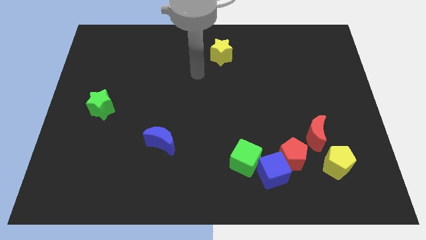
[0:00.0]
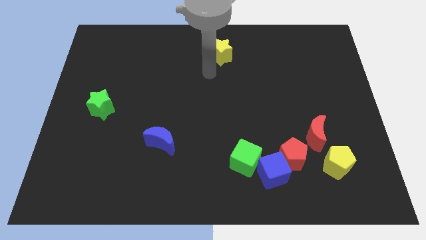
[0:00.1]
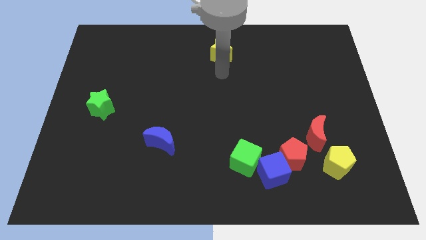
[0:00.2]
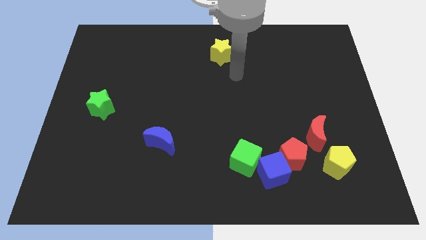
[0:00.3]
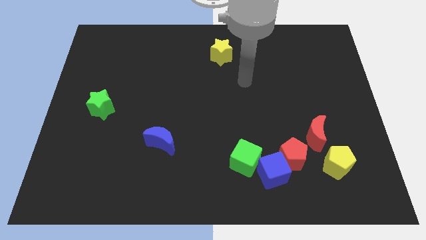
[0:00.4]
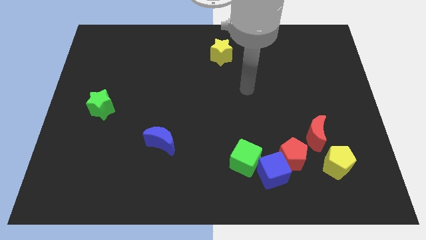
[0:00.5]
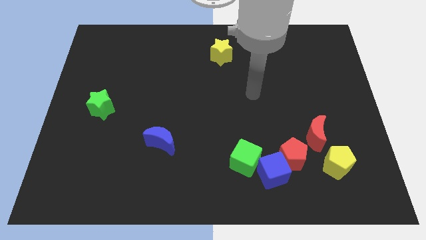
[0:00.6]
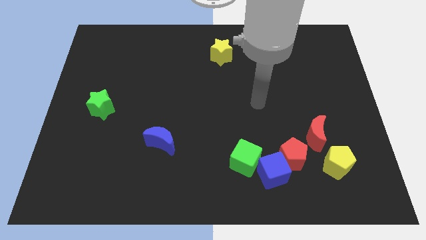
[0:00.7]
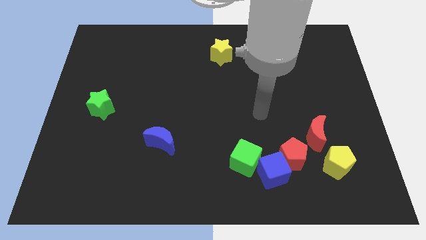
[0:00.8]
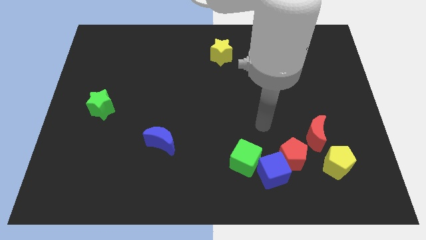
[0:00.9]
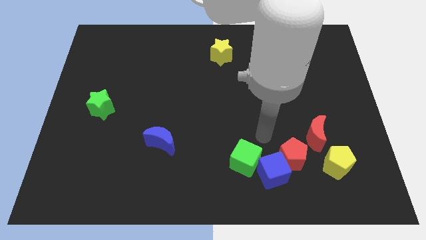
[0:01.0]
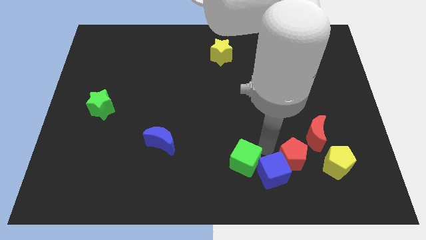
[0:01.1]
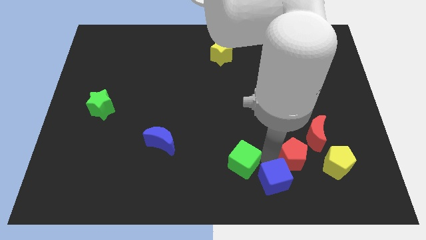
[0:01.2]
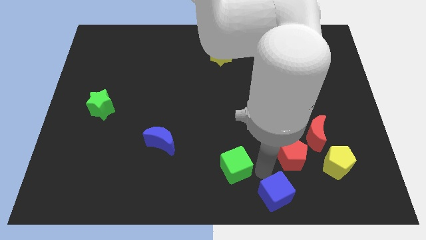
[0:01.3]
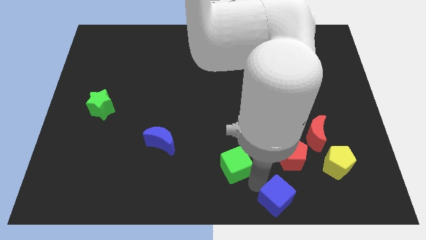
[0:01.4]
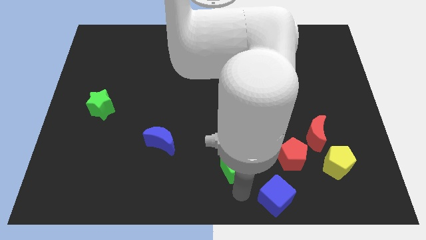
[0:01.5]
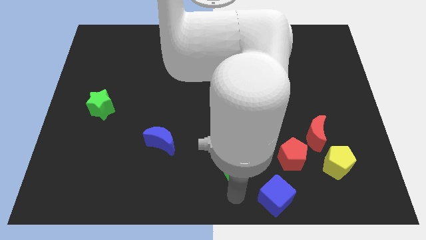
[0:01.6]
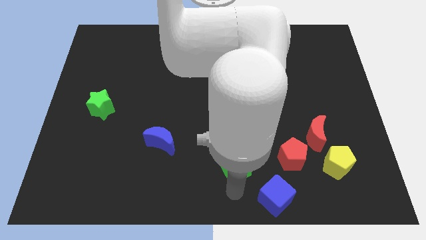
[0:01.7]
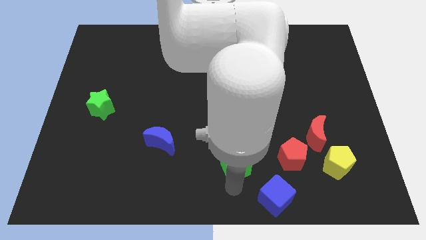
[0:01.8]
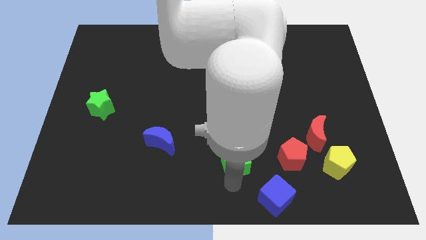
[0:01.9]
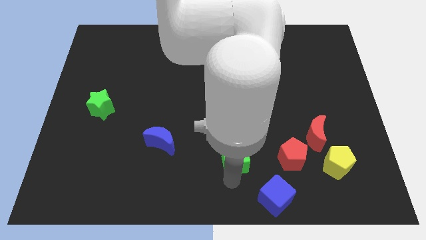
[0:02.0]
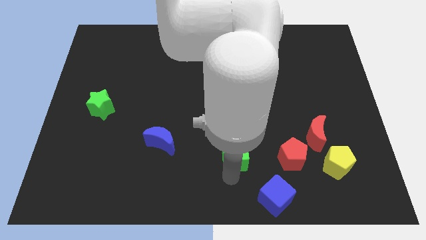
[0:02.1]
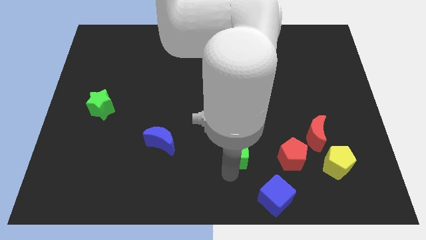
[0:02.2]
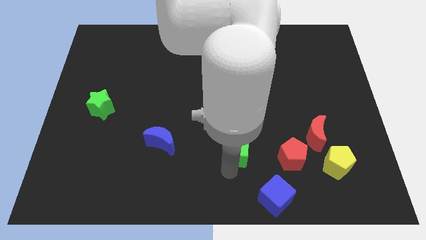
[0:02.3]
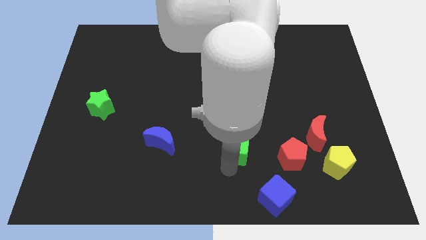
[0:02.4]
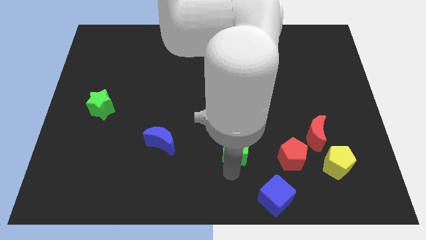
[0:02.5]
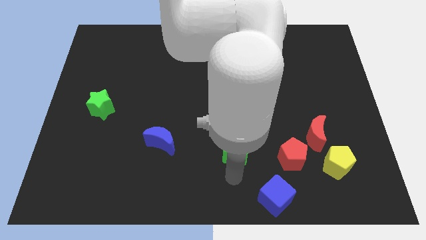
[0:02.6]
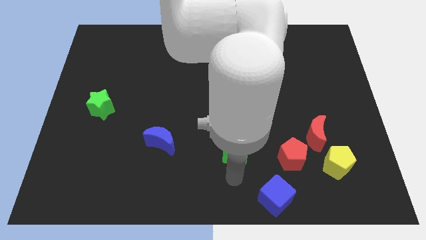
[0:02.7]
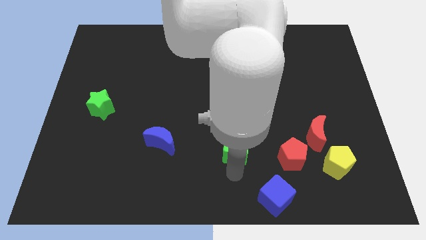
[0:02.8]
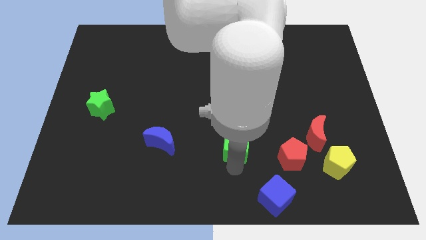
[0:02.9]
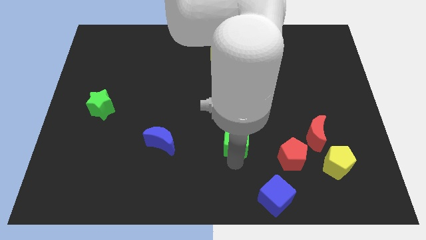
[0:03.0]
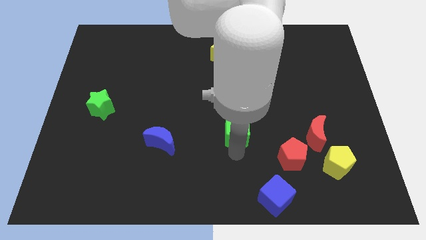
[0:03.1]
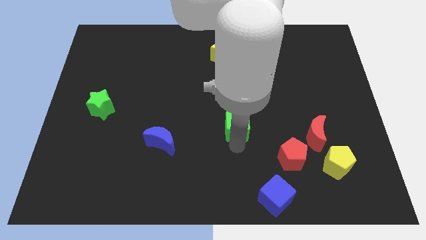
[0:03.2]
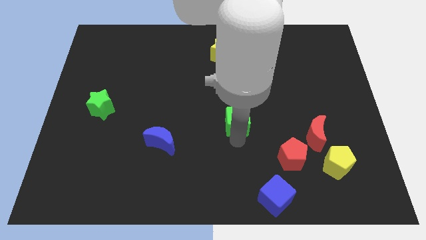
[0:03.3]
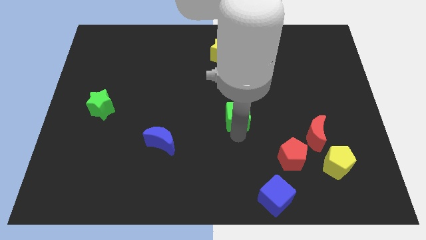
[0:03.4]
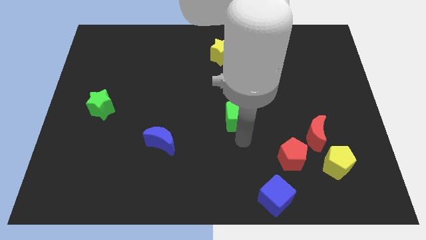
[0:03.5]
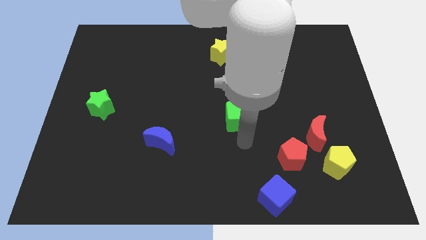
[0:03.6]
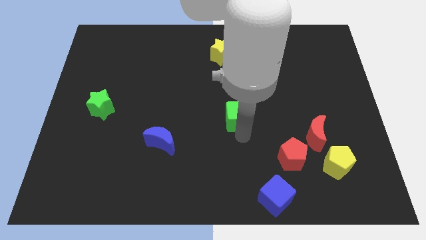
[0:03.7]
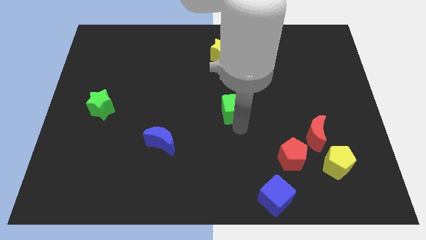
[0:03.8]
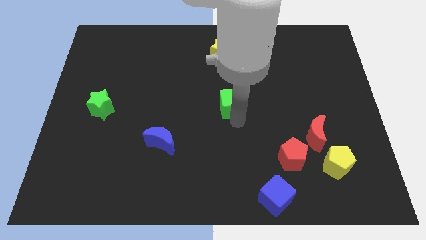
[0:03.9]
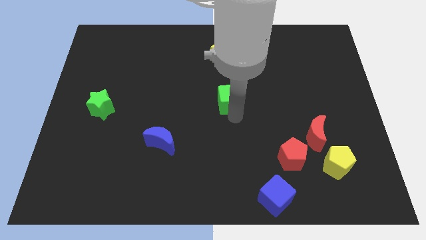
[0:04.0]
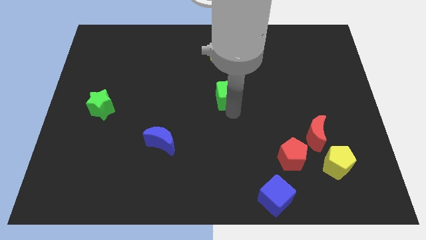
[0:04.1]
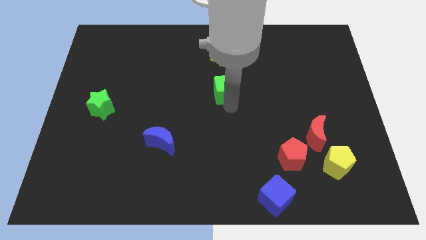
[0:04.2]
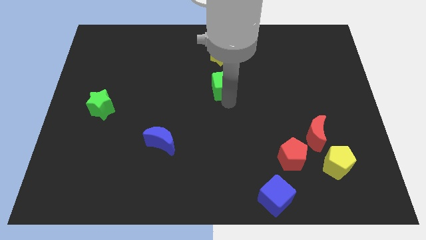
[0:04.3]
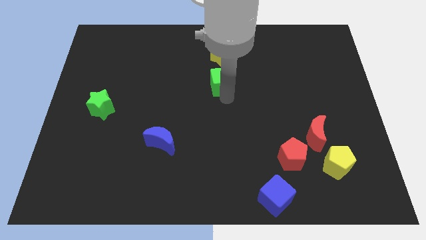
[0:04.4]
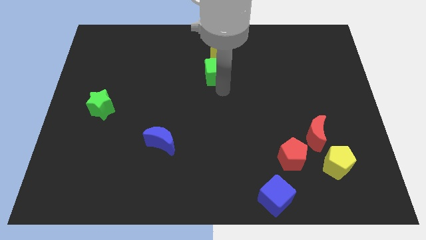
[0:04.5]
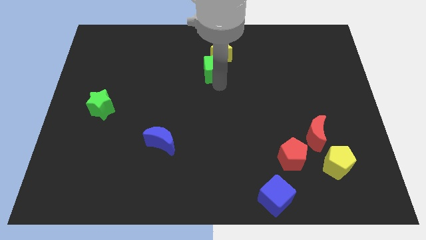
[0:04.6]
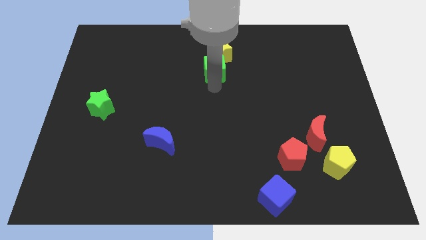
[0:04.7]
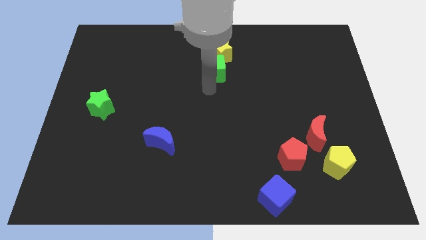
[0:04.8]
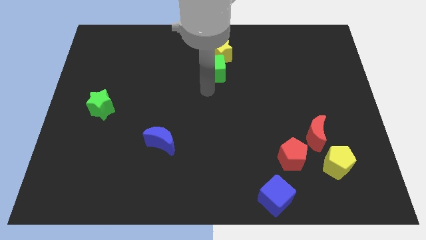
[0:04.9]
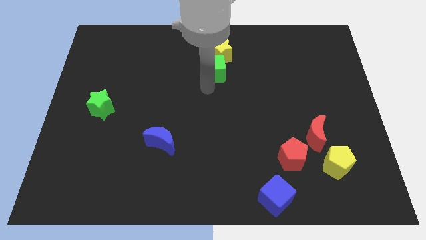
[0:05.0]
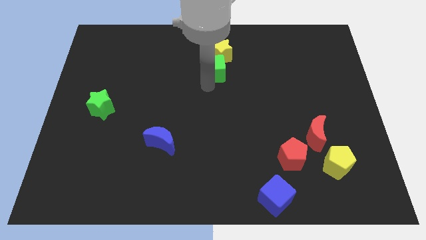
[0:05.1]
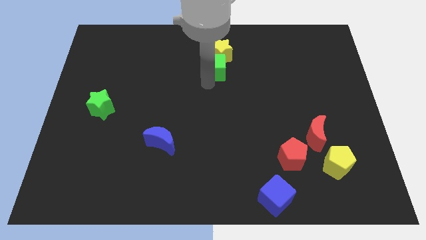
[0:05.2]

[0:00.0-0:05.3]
move the green cube towards the yellow star

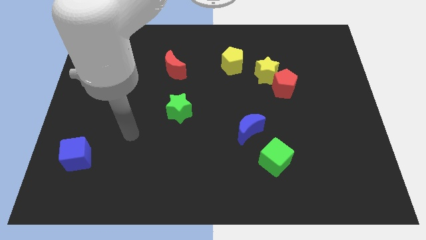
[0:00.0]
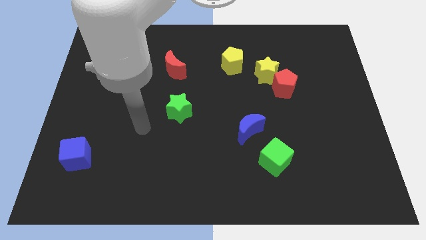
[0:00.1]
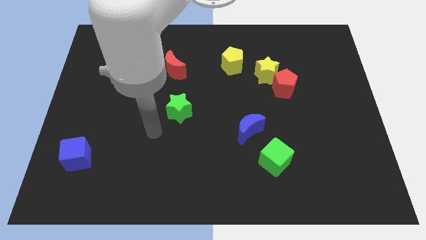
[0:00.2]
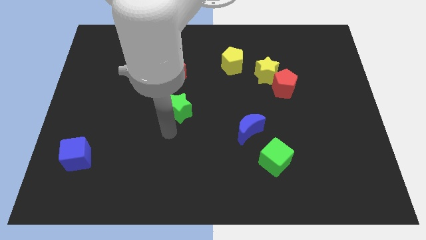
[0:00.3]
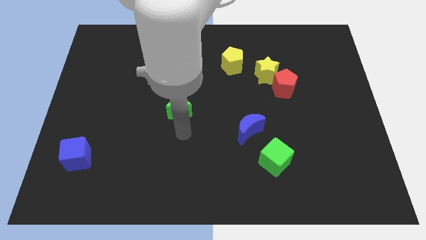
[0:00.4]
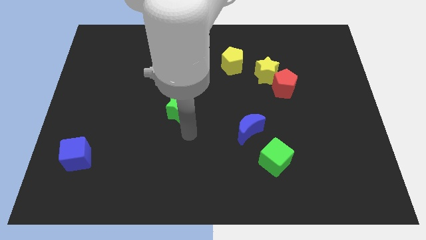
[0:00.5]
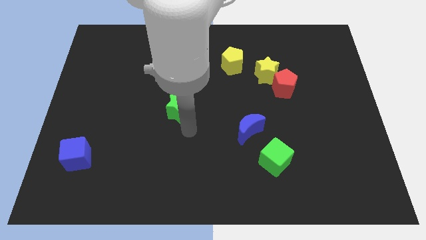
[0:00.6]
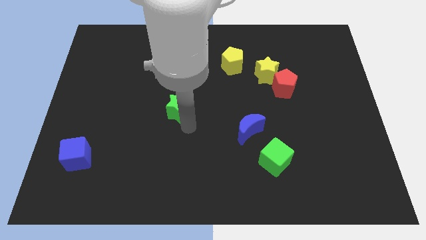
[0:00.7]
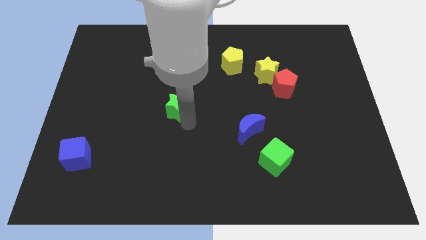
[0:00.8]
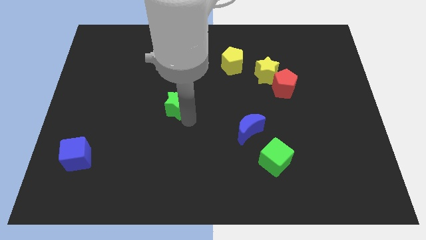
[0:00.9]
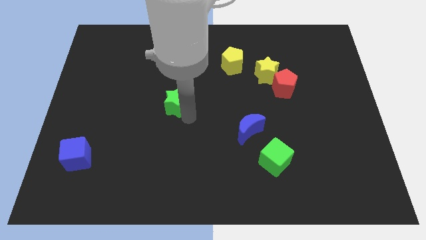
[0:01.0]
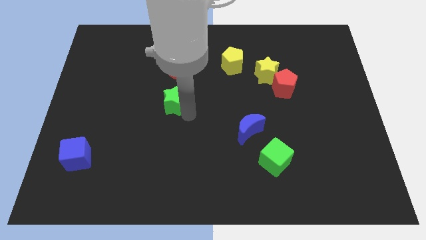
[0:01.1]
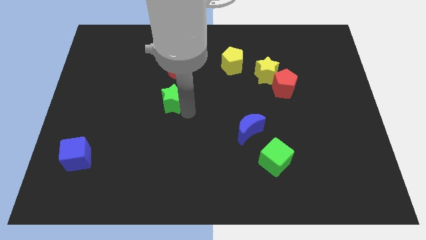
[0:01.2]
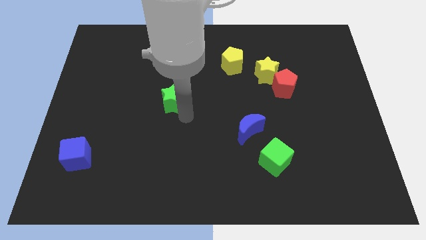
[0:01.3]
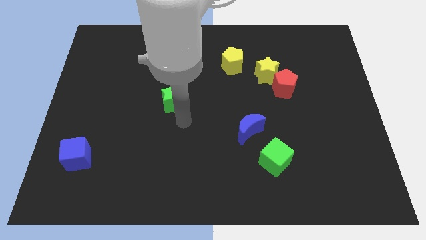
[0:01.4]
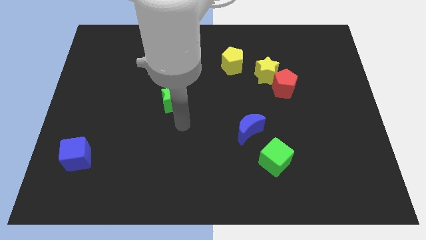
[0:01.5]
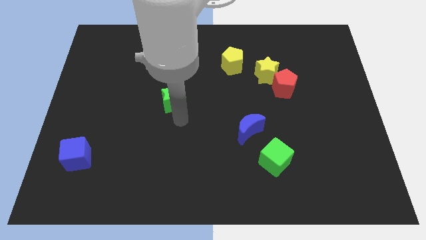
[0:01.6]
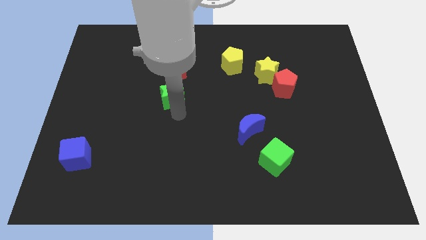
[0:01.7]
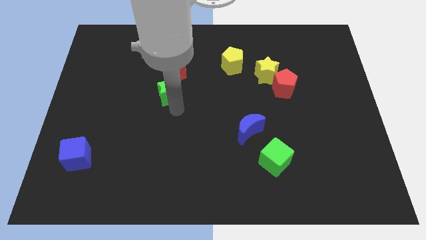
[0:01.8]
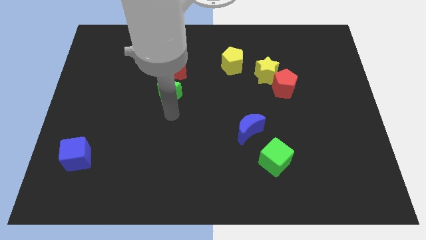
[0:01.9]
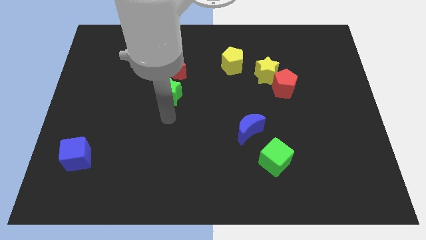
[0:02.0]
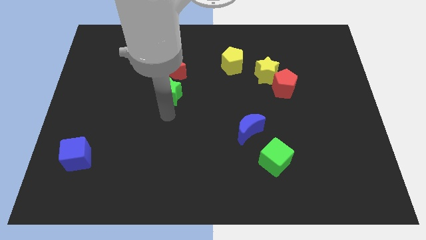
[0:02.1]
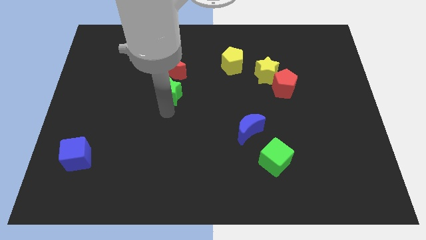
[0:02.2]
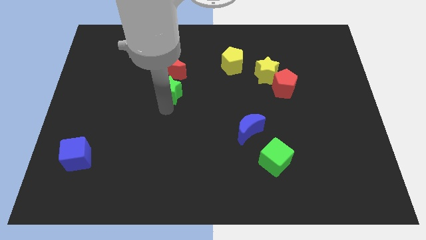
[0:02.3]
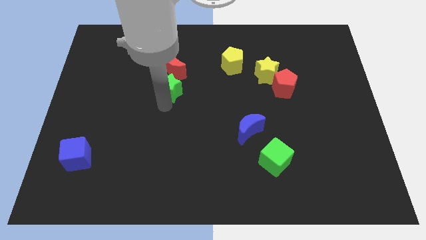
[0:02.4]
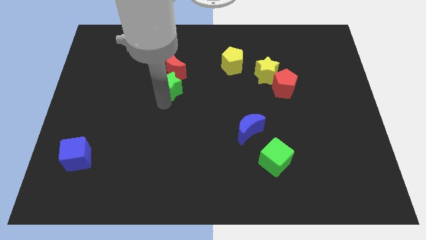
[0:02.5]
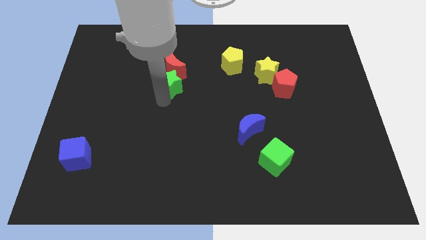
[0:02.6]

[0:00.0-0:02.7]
push the green star to the red moon

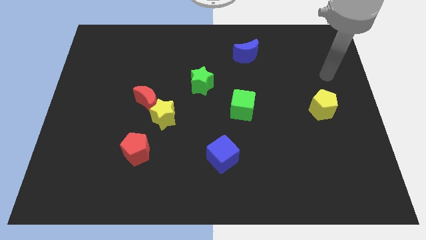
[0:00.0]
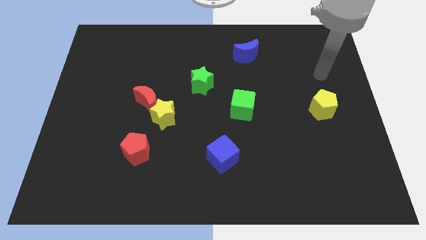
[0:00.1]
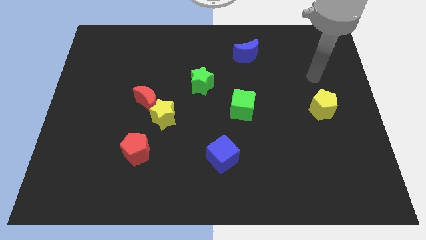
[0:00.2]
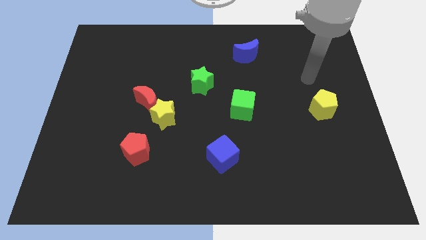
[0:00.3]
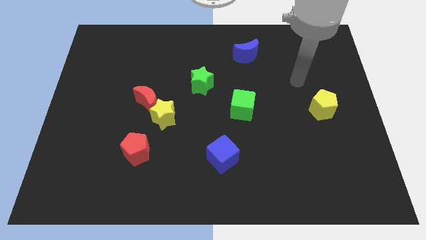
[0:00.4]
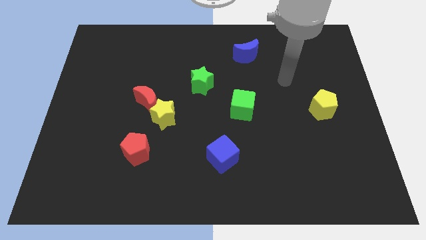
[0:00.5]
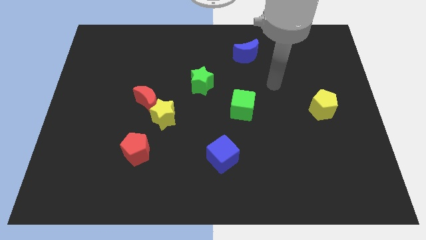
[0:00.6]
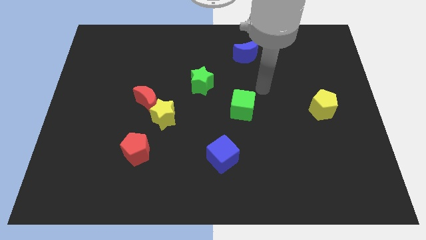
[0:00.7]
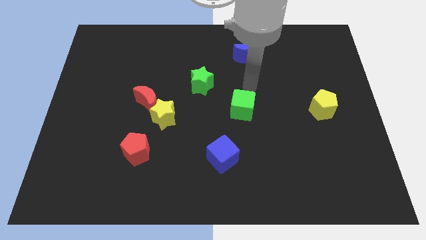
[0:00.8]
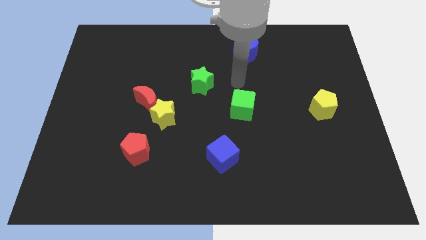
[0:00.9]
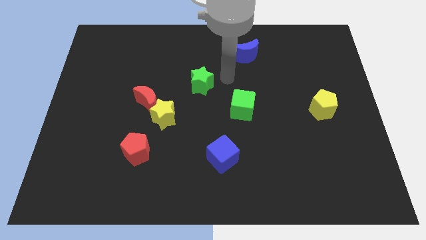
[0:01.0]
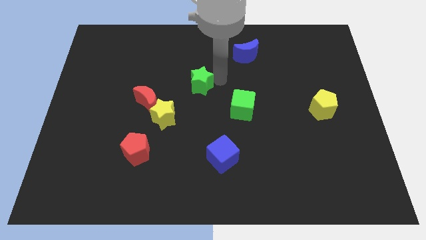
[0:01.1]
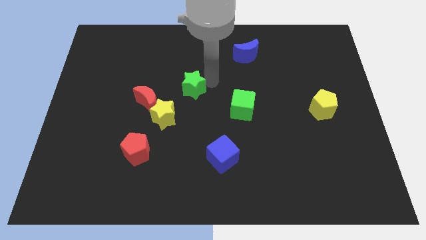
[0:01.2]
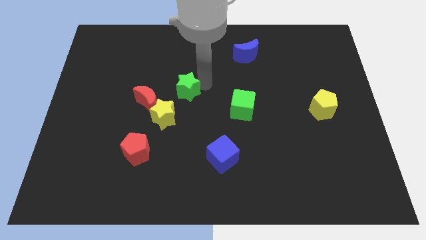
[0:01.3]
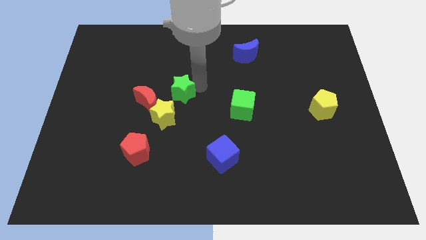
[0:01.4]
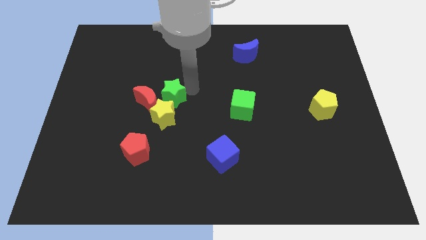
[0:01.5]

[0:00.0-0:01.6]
put the green star close to the red moon
